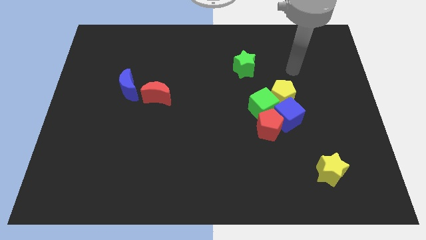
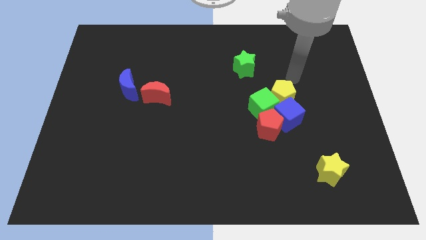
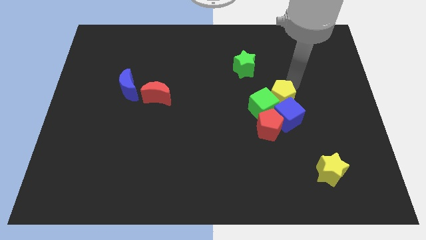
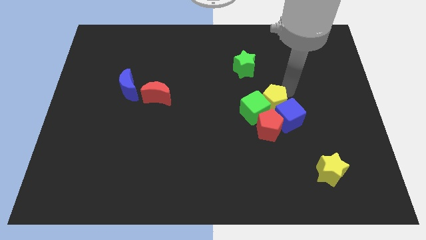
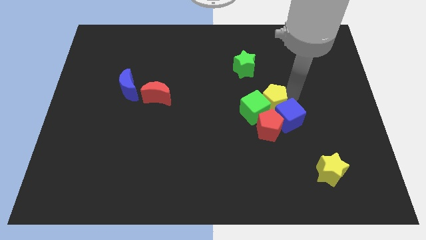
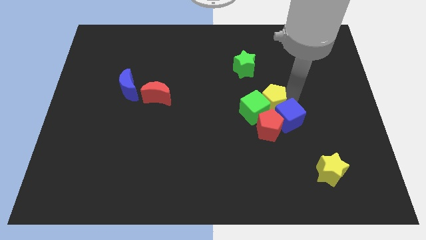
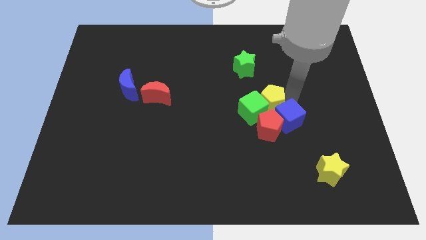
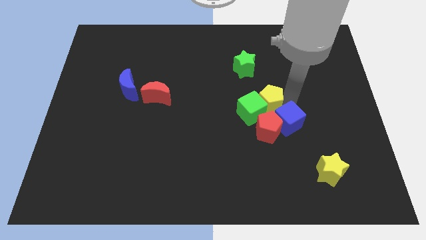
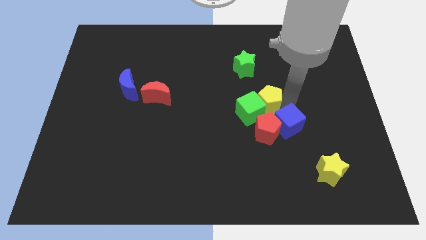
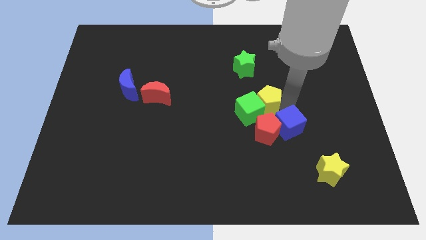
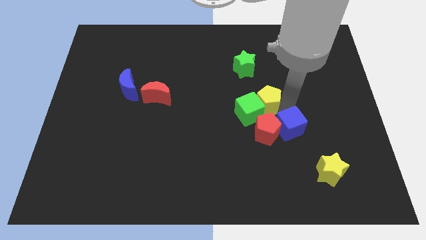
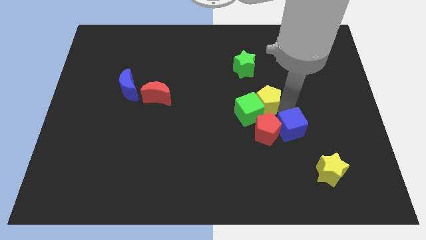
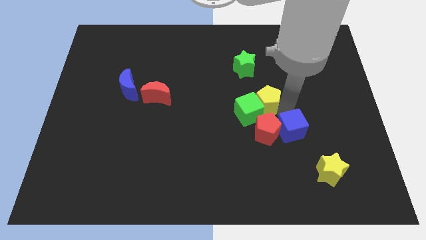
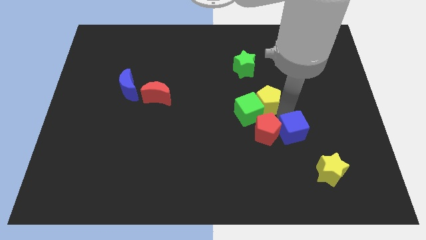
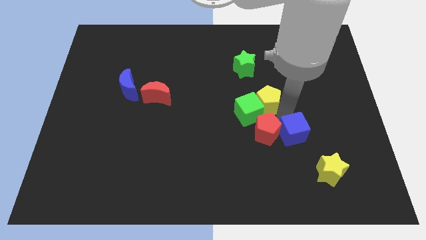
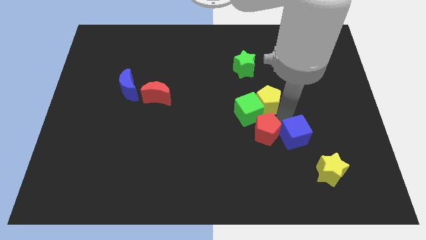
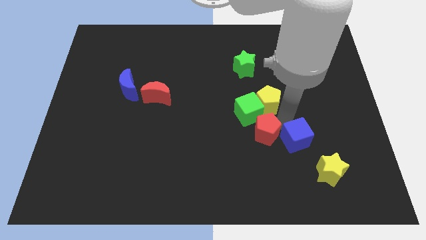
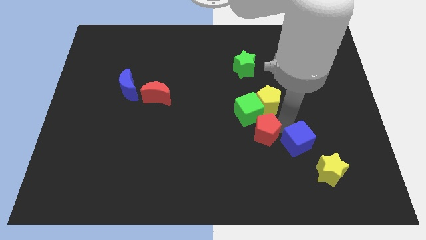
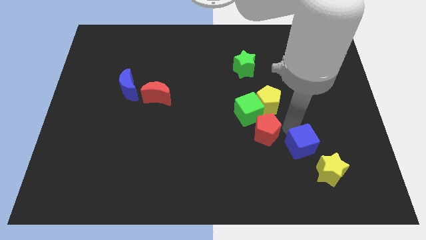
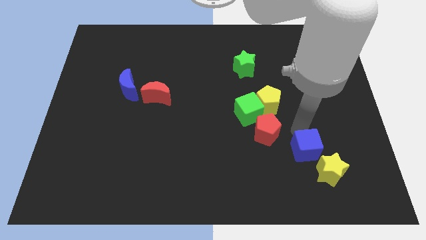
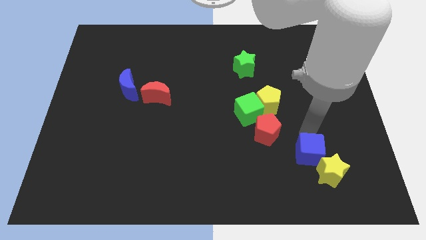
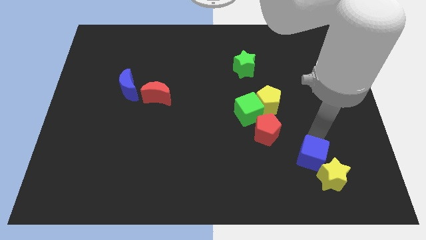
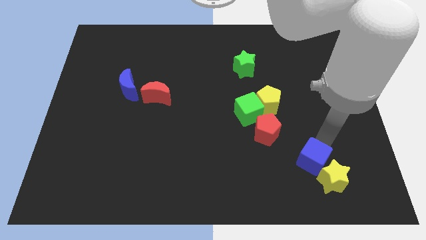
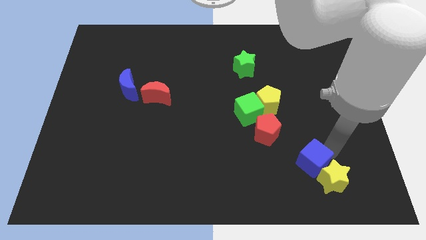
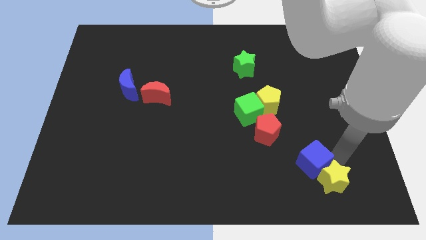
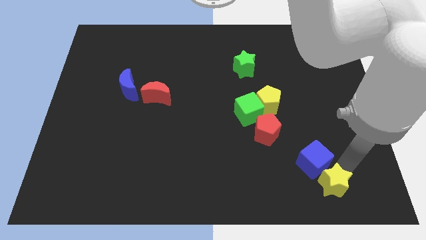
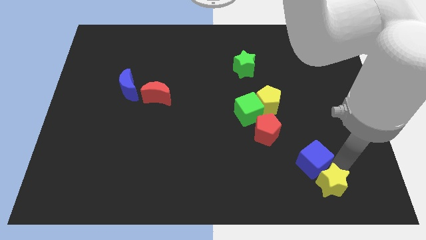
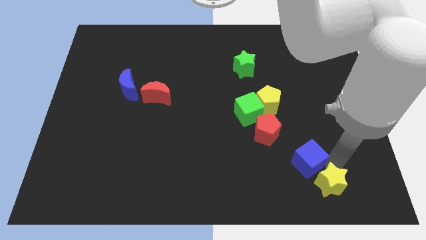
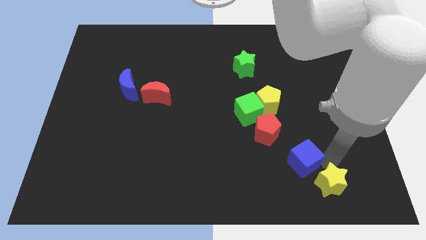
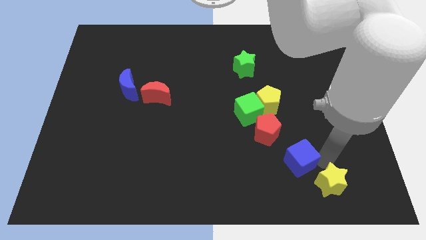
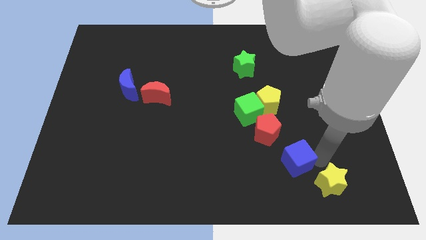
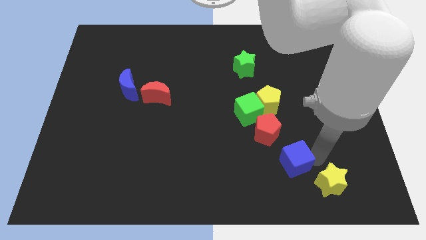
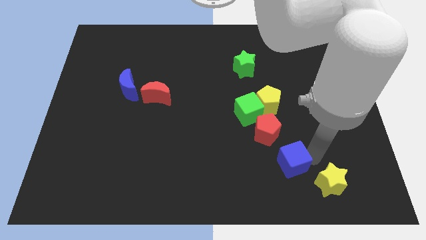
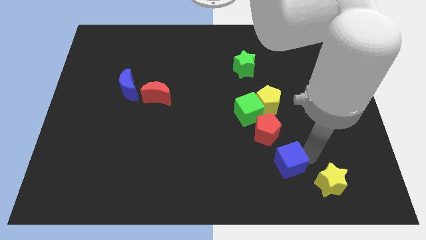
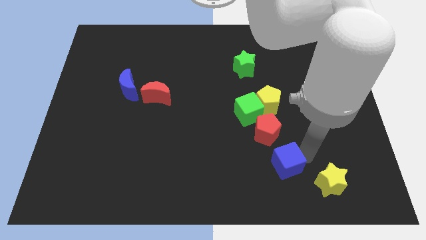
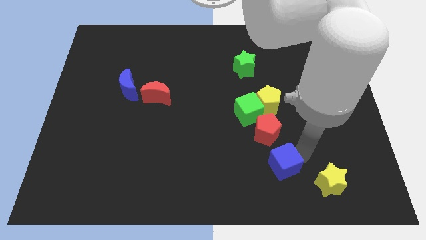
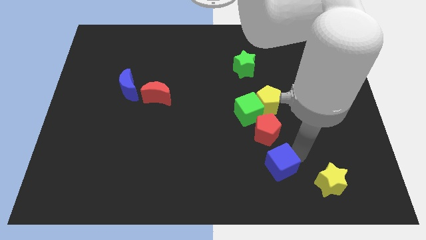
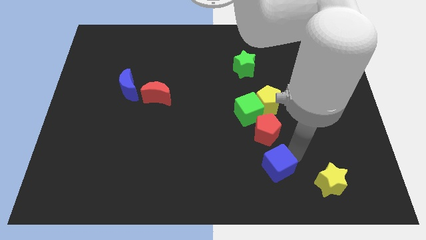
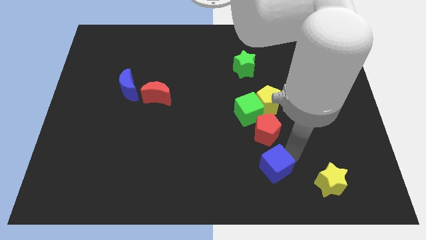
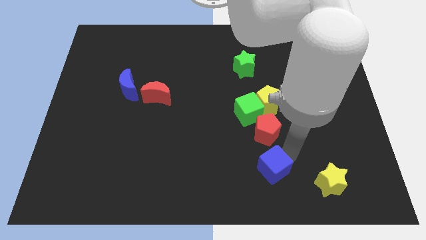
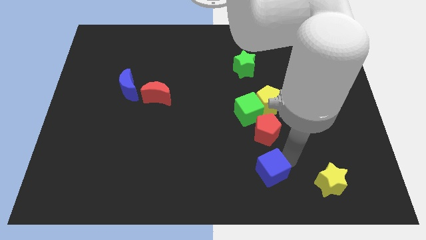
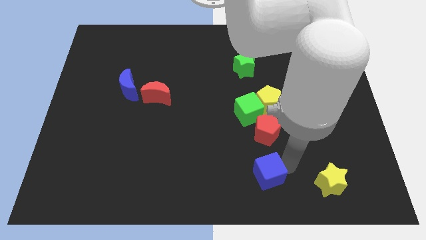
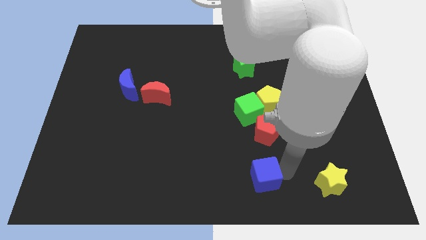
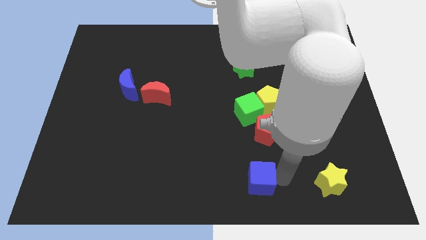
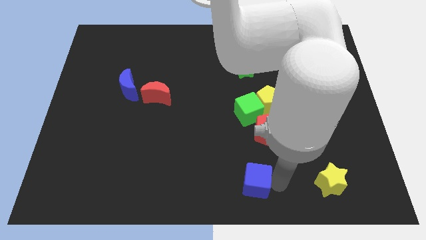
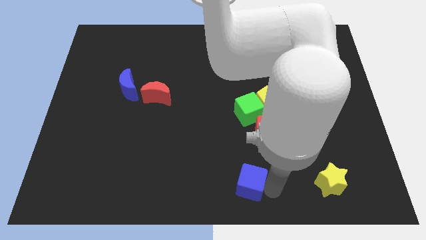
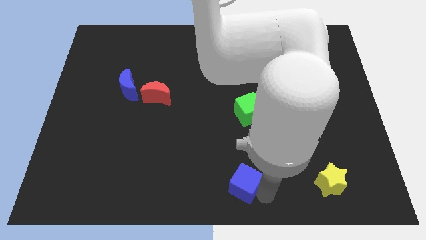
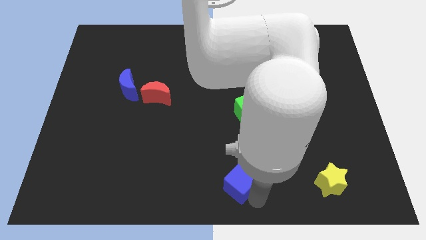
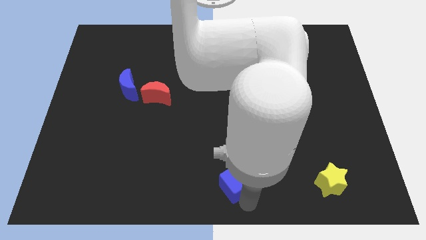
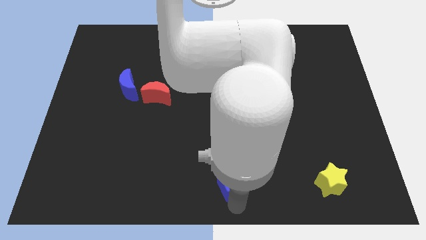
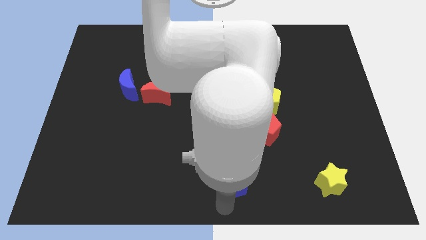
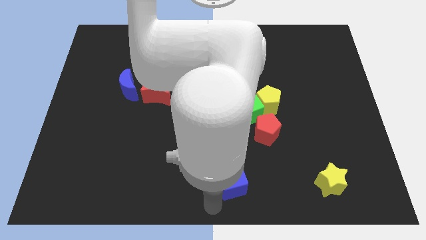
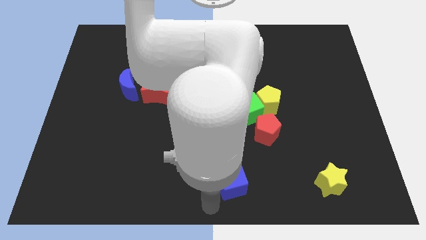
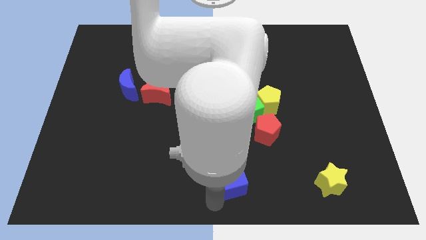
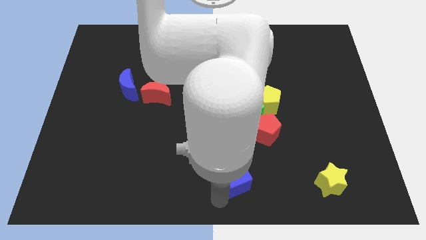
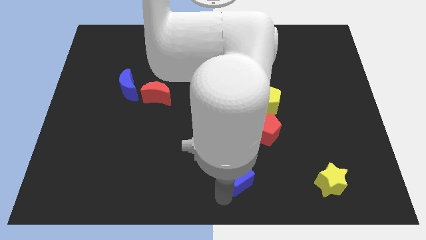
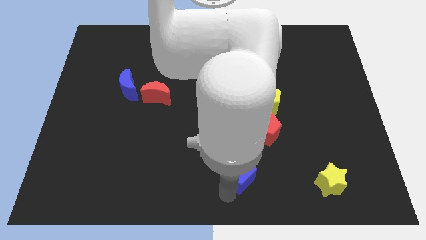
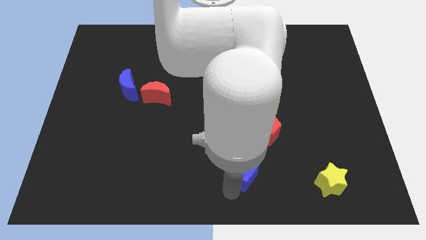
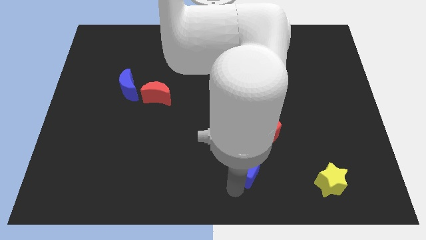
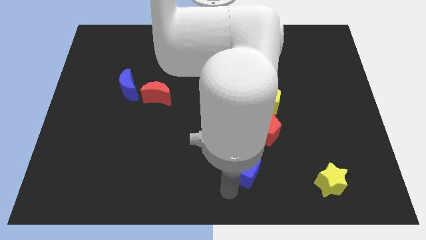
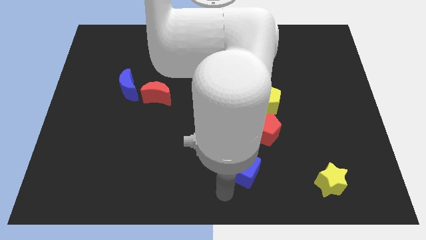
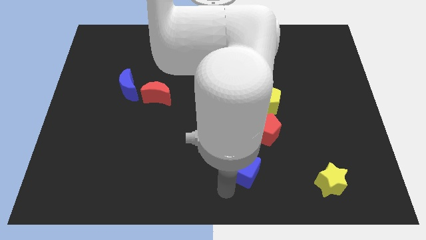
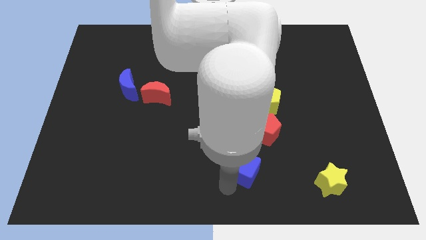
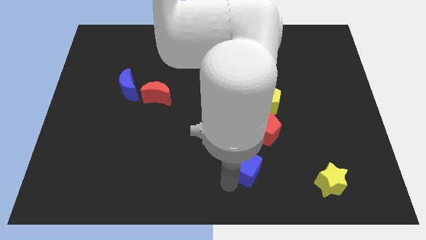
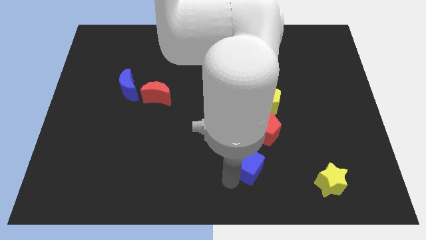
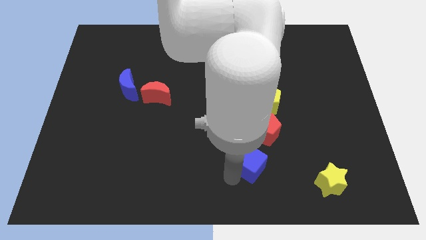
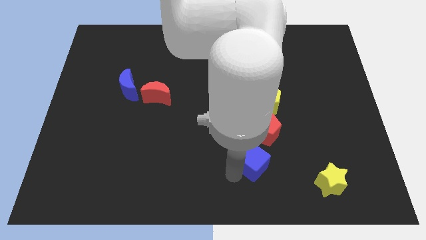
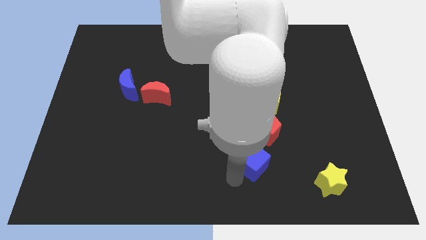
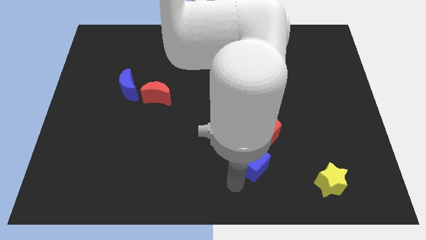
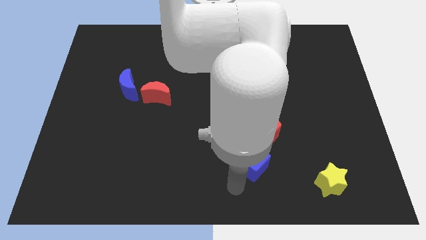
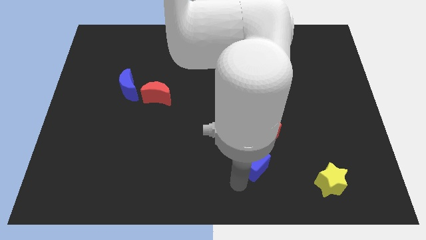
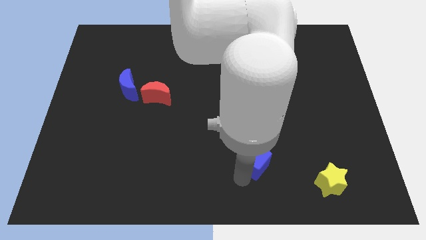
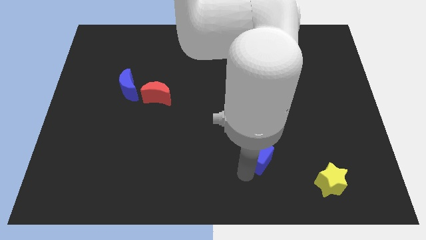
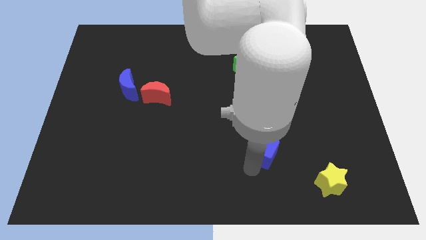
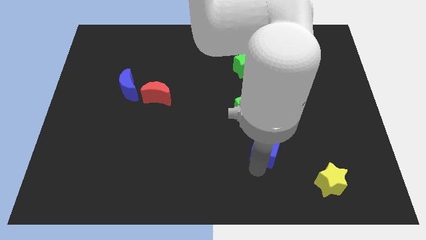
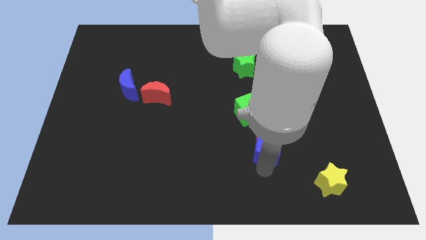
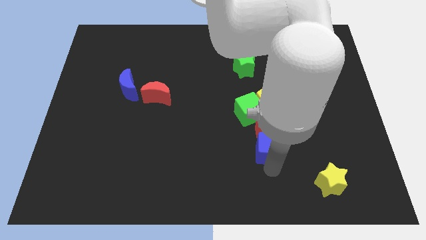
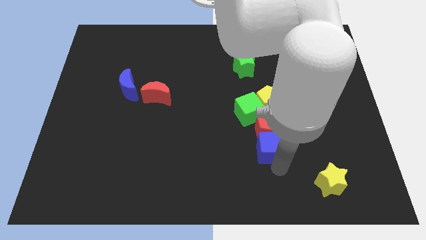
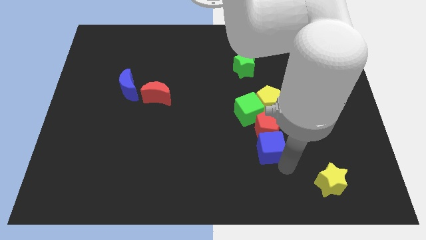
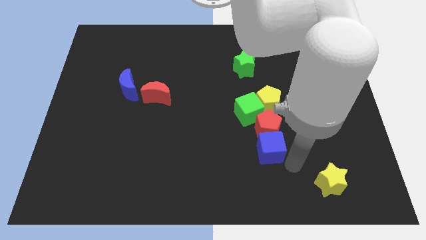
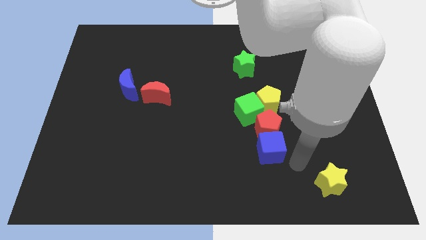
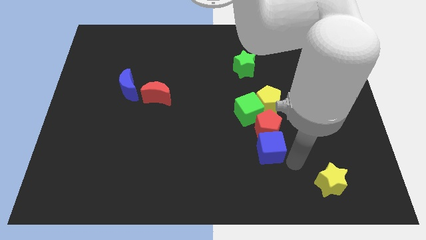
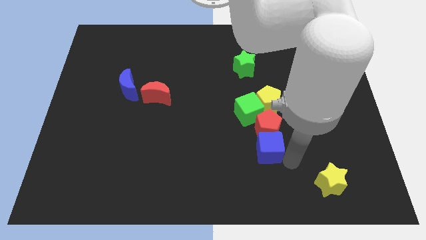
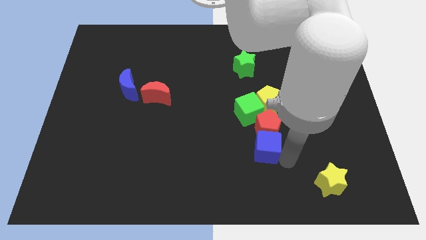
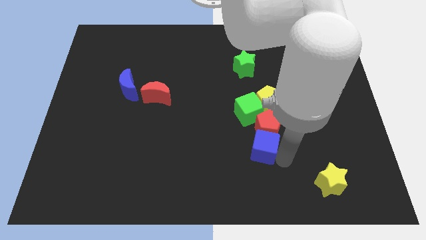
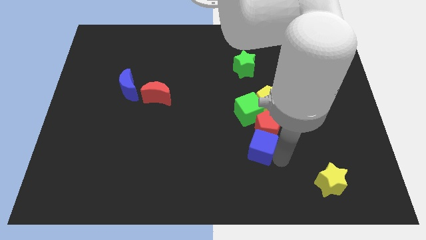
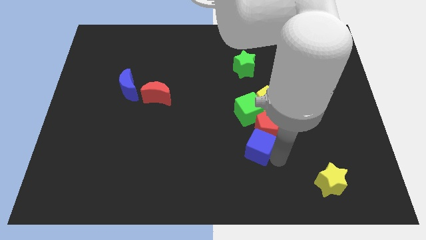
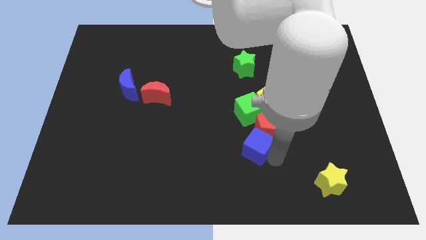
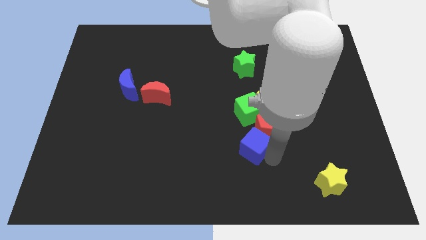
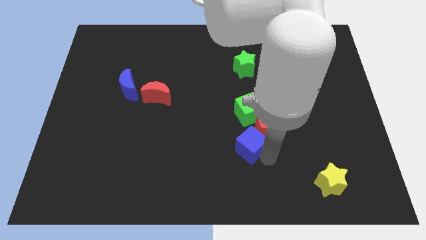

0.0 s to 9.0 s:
move the blue cube to the left of the red pentagon
